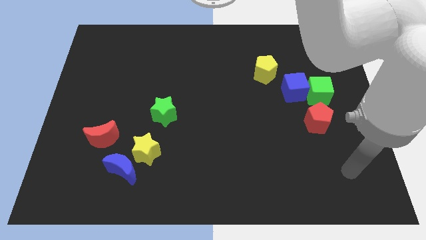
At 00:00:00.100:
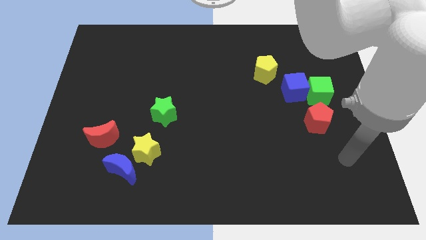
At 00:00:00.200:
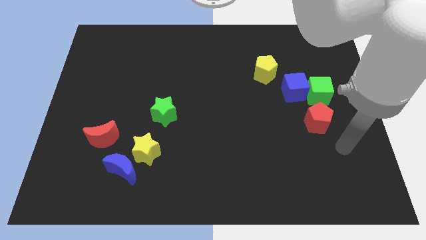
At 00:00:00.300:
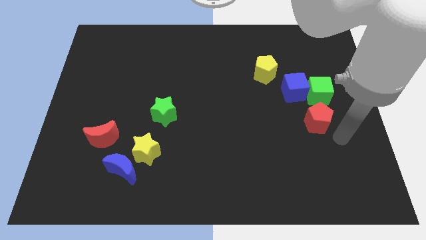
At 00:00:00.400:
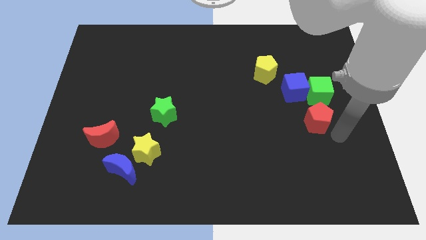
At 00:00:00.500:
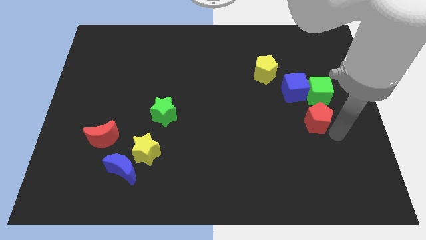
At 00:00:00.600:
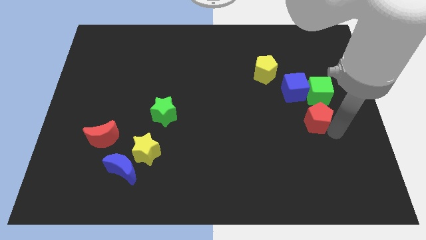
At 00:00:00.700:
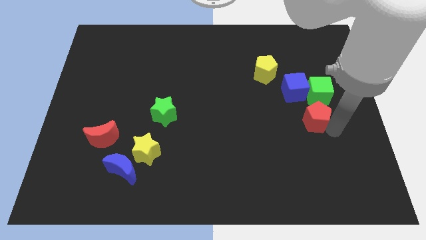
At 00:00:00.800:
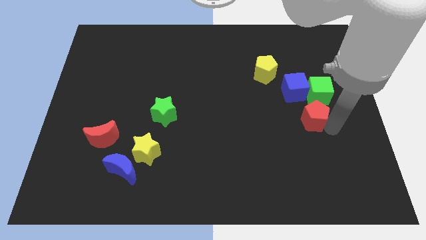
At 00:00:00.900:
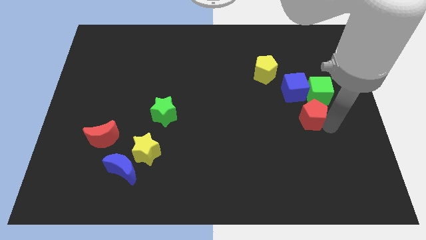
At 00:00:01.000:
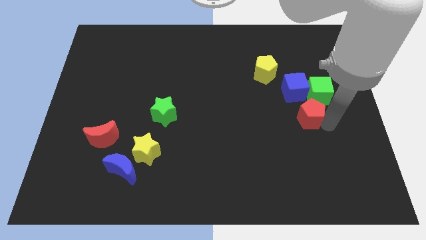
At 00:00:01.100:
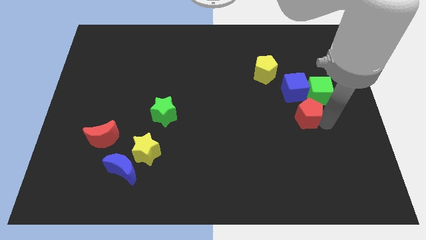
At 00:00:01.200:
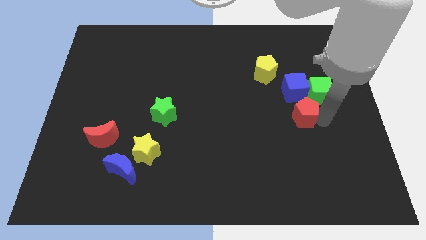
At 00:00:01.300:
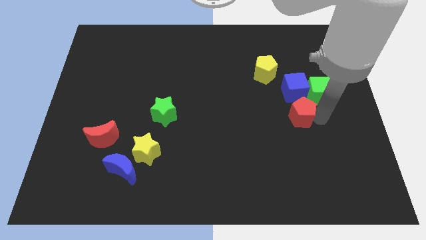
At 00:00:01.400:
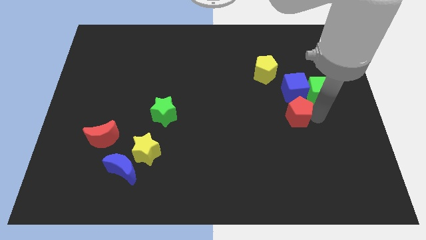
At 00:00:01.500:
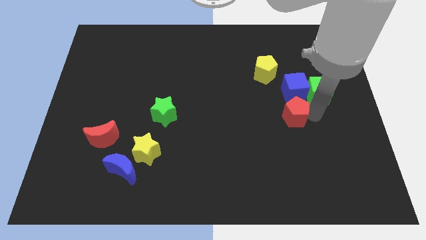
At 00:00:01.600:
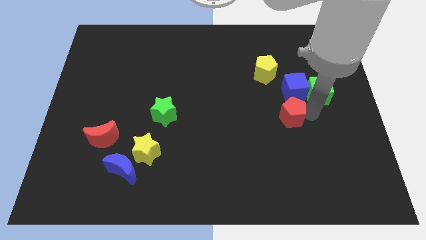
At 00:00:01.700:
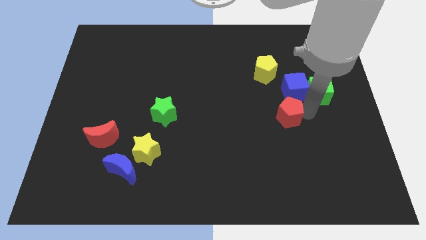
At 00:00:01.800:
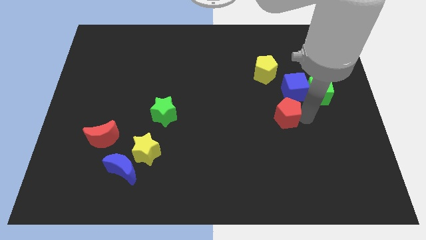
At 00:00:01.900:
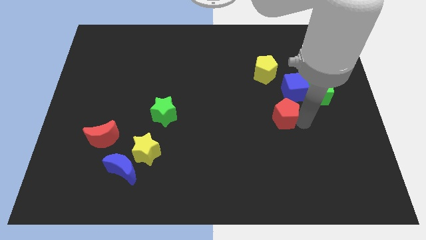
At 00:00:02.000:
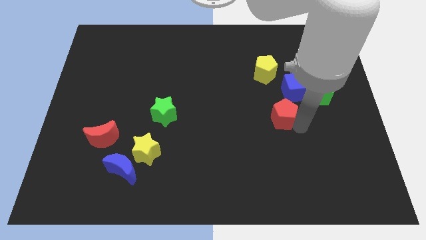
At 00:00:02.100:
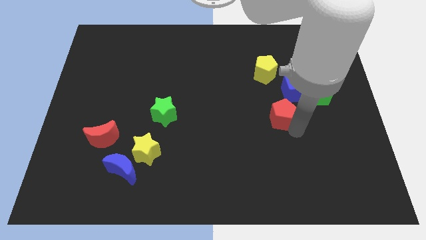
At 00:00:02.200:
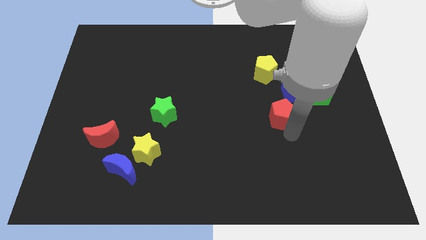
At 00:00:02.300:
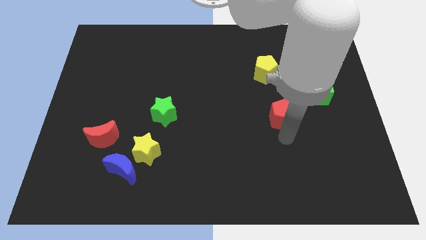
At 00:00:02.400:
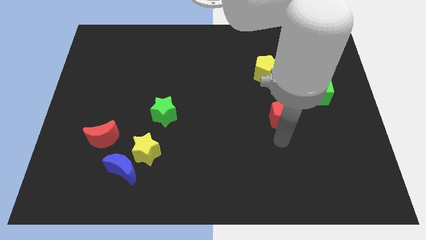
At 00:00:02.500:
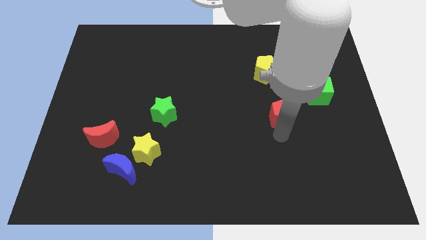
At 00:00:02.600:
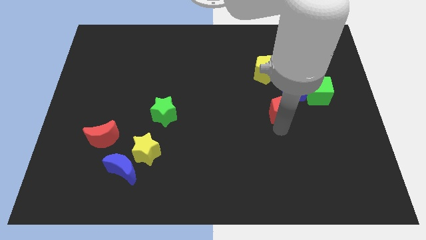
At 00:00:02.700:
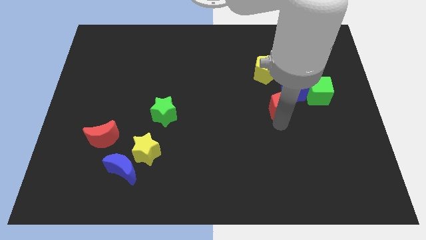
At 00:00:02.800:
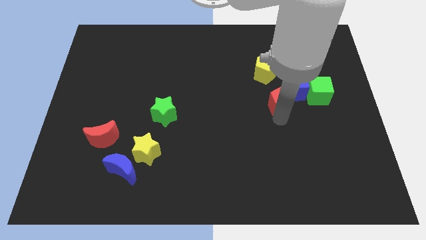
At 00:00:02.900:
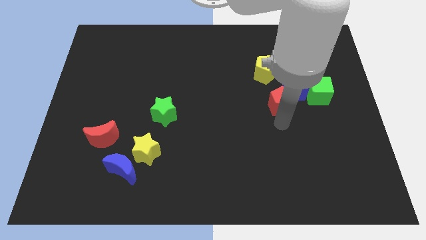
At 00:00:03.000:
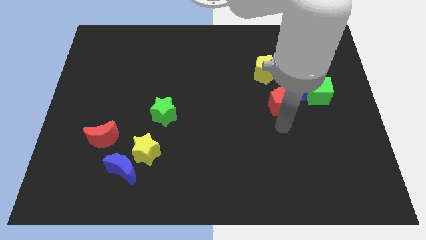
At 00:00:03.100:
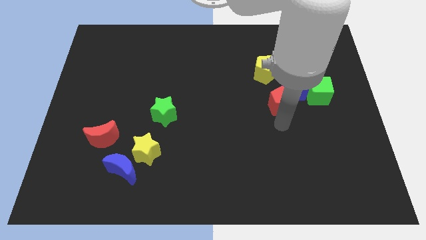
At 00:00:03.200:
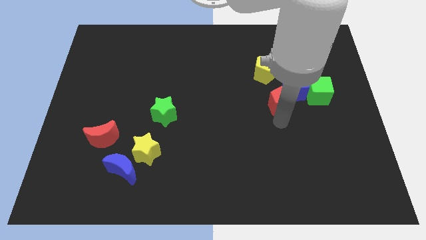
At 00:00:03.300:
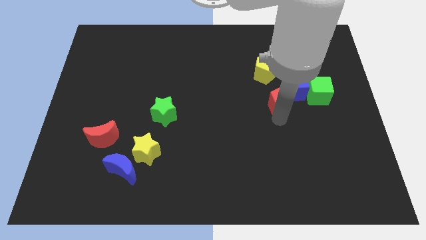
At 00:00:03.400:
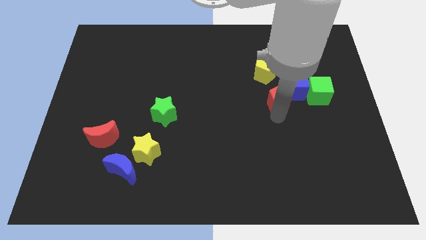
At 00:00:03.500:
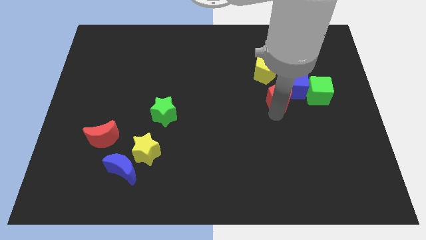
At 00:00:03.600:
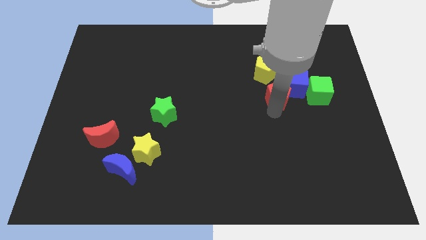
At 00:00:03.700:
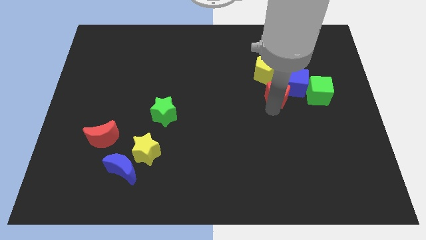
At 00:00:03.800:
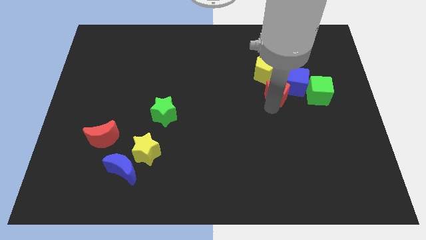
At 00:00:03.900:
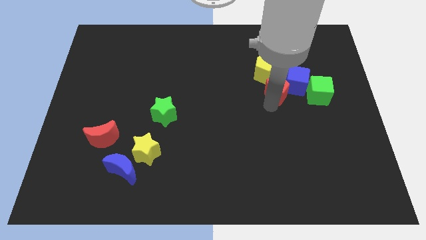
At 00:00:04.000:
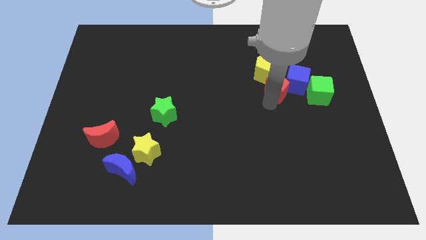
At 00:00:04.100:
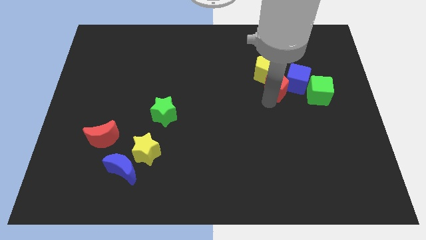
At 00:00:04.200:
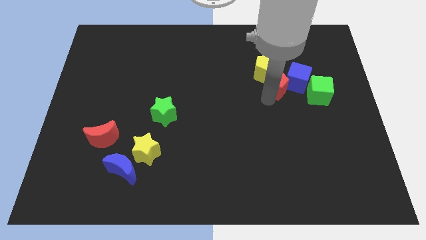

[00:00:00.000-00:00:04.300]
move the red pentagon somewhat up

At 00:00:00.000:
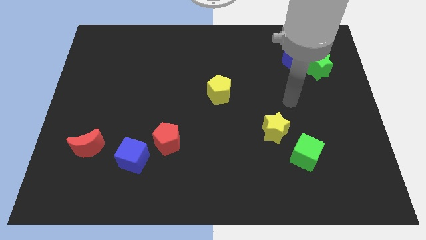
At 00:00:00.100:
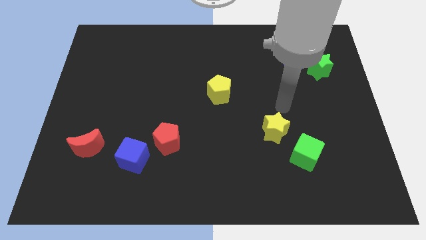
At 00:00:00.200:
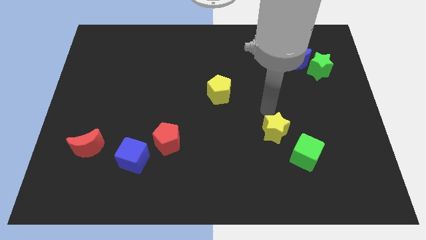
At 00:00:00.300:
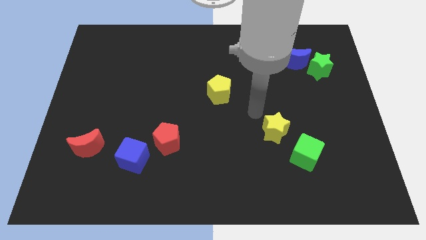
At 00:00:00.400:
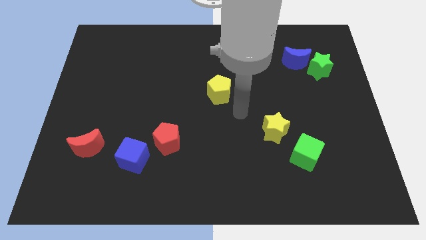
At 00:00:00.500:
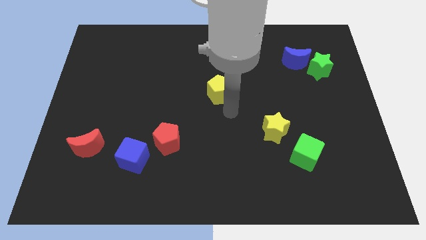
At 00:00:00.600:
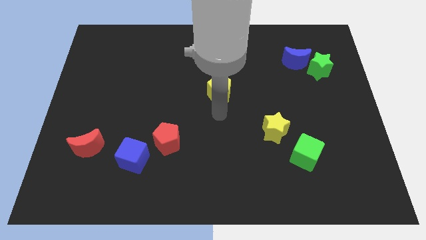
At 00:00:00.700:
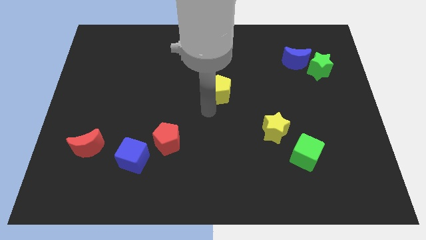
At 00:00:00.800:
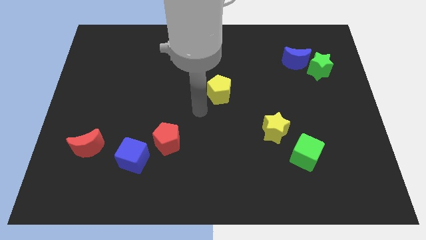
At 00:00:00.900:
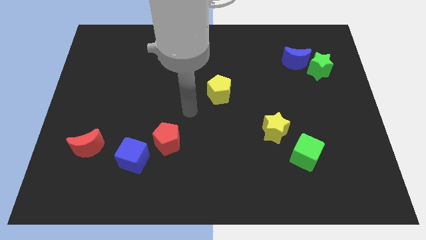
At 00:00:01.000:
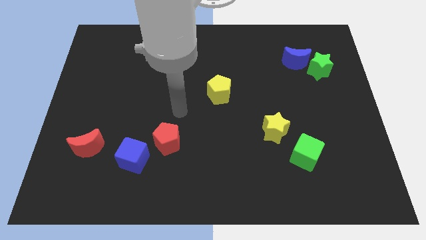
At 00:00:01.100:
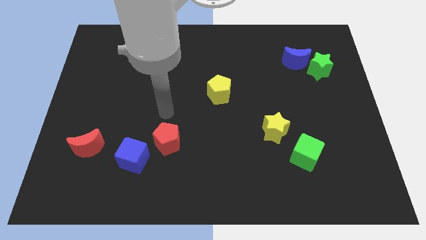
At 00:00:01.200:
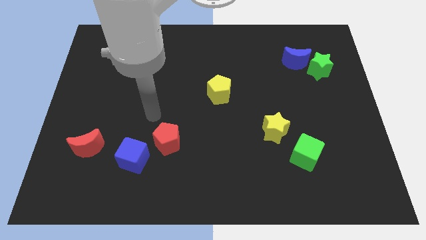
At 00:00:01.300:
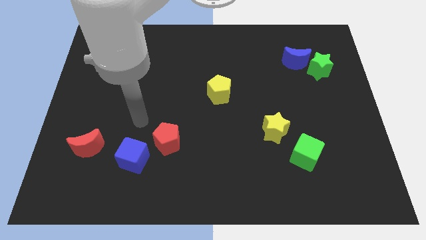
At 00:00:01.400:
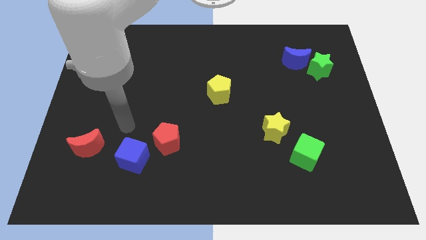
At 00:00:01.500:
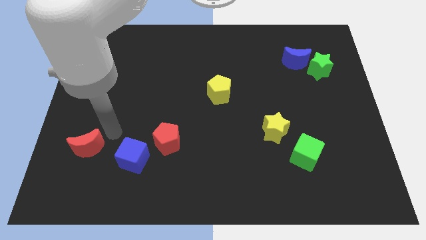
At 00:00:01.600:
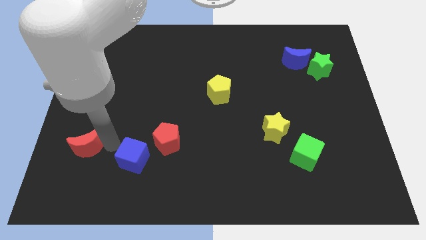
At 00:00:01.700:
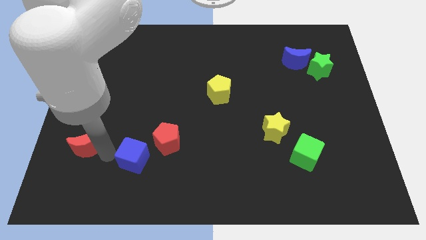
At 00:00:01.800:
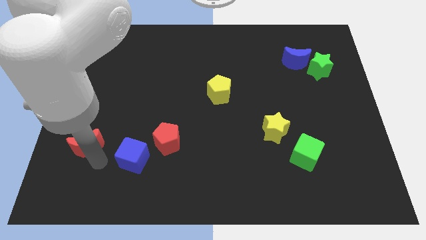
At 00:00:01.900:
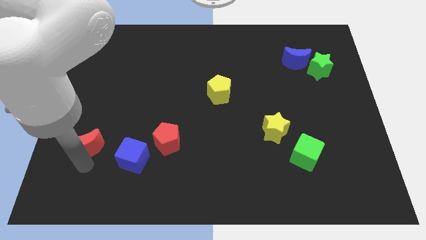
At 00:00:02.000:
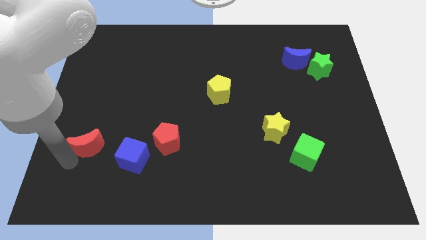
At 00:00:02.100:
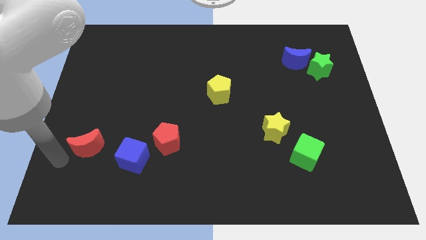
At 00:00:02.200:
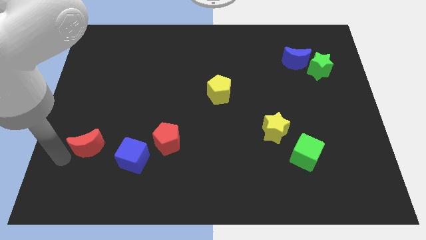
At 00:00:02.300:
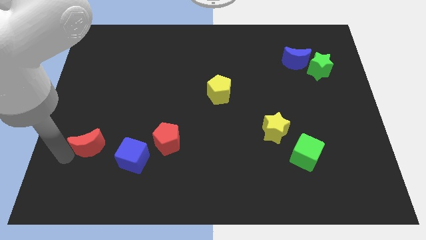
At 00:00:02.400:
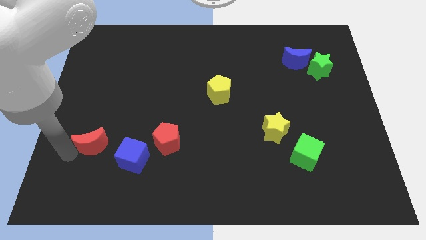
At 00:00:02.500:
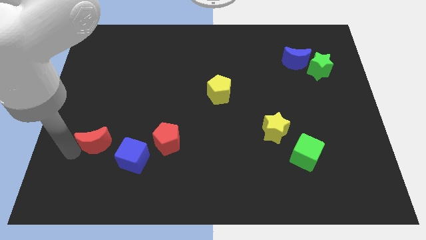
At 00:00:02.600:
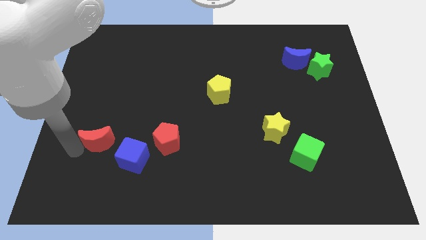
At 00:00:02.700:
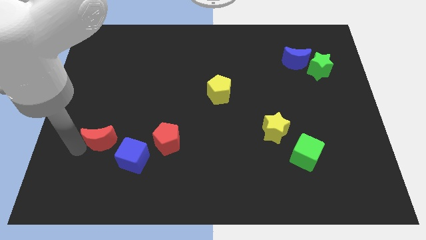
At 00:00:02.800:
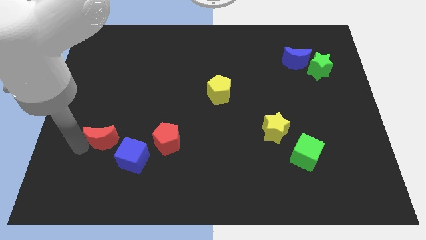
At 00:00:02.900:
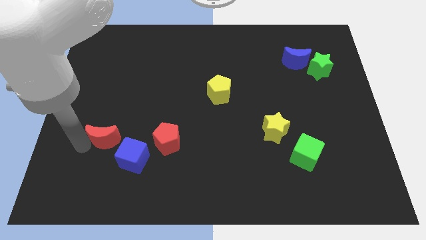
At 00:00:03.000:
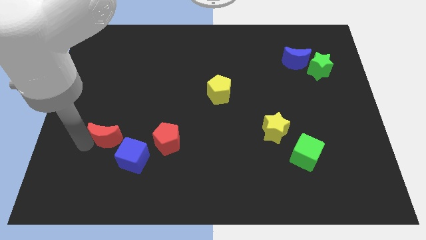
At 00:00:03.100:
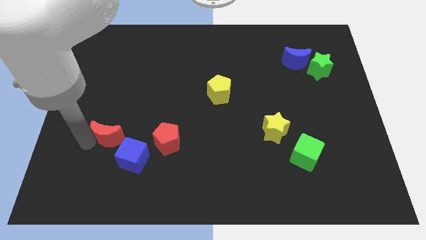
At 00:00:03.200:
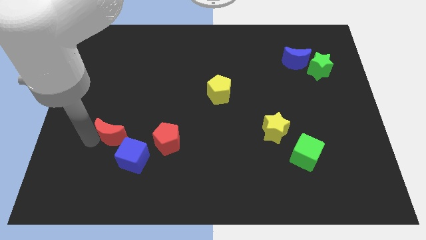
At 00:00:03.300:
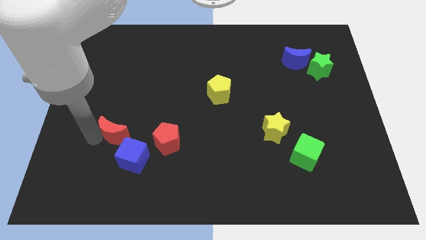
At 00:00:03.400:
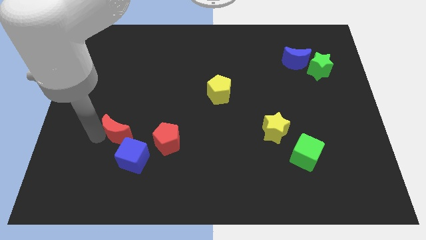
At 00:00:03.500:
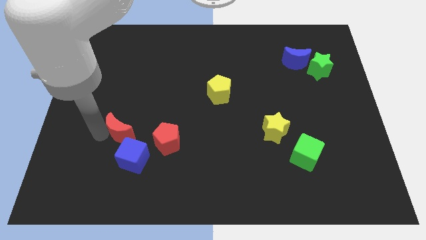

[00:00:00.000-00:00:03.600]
move the red moon a bit diagonally upwards and right
